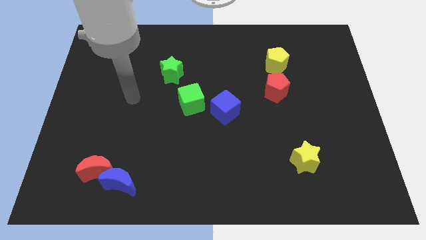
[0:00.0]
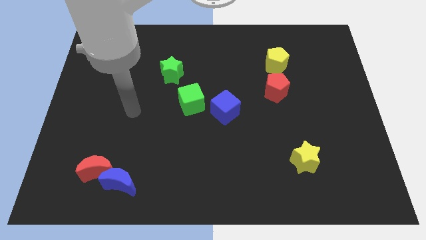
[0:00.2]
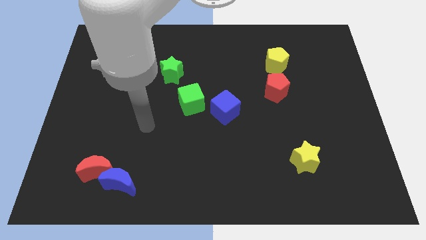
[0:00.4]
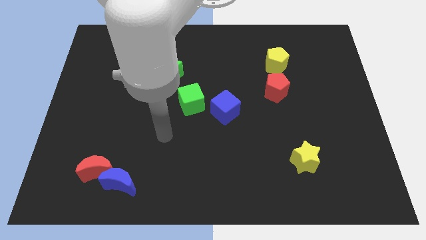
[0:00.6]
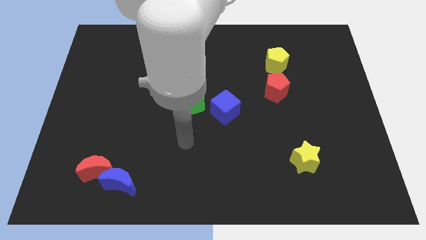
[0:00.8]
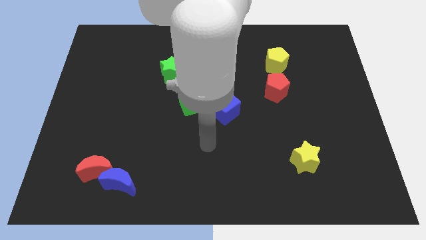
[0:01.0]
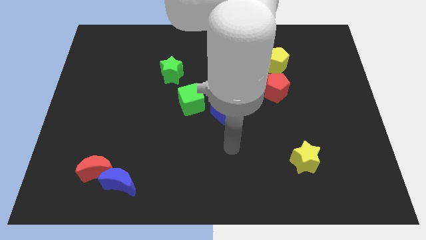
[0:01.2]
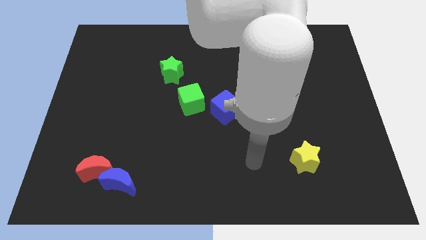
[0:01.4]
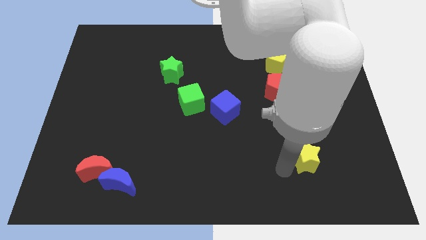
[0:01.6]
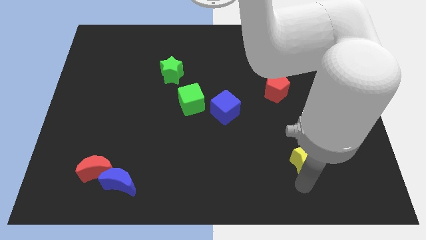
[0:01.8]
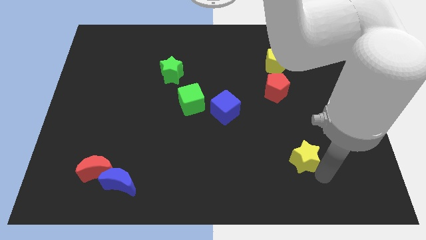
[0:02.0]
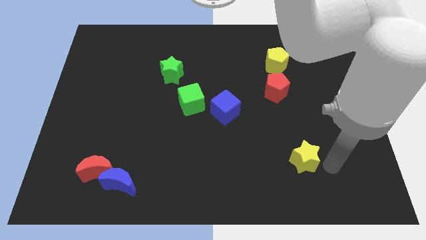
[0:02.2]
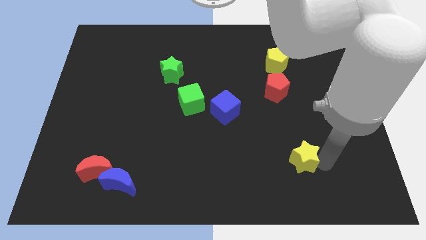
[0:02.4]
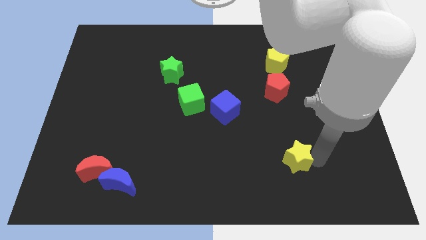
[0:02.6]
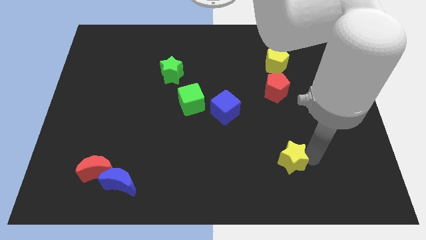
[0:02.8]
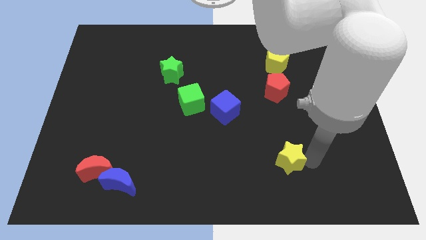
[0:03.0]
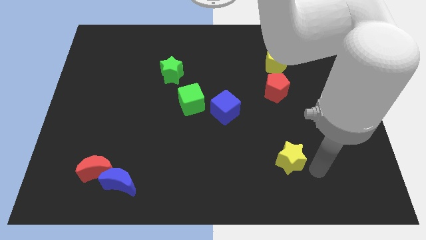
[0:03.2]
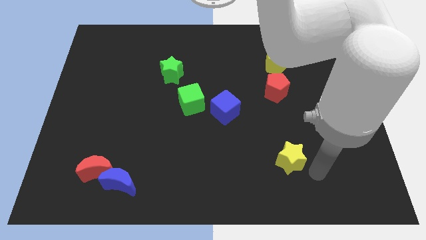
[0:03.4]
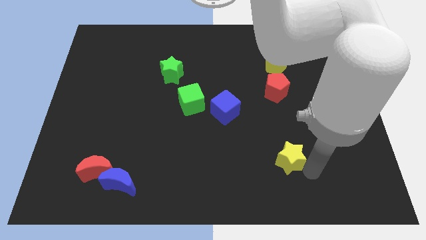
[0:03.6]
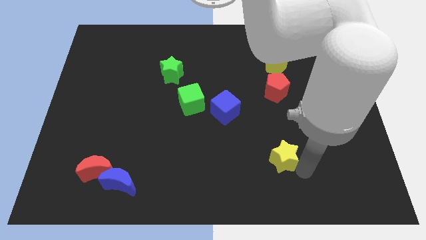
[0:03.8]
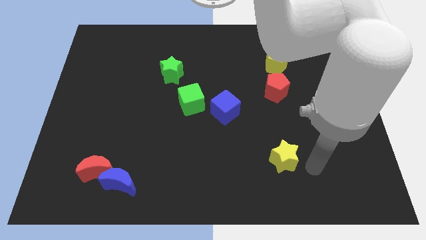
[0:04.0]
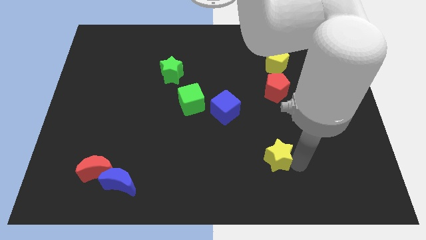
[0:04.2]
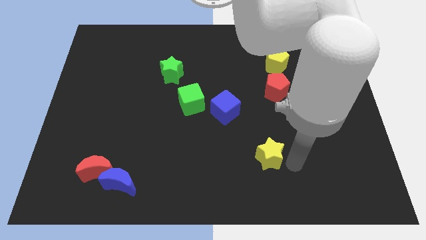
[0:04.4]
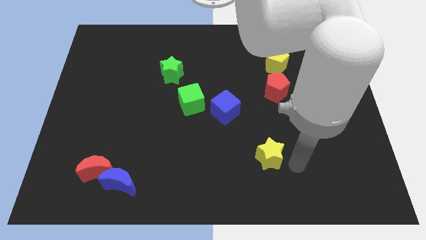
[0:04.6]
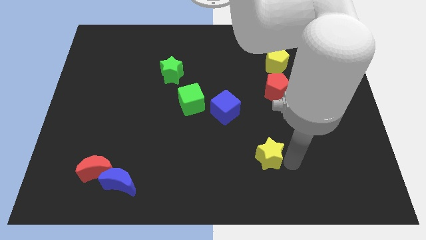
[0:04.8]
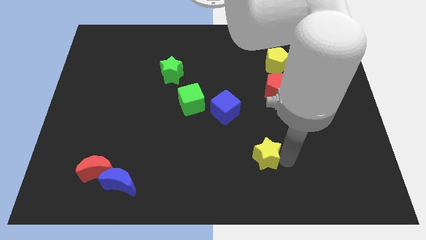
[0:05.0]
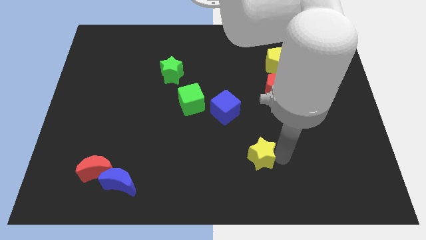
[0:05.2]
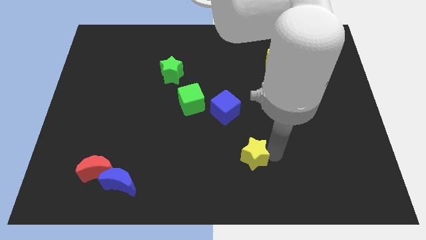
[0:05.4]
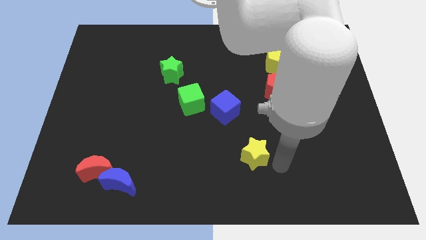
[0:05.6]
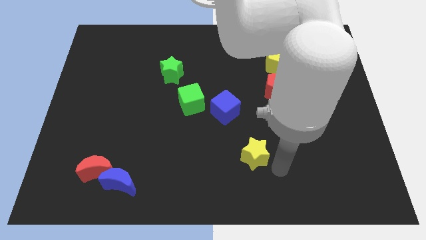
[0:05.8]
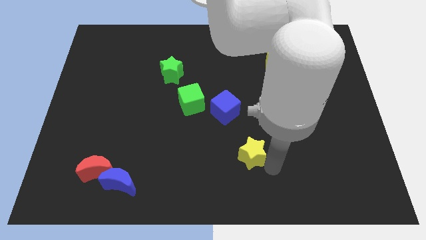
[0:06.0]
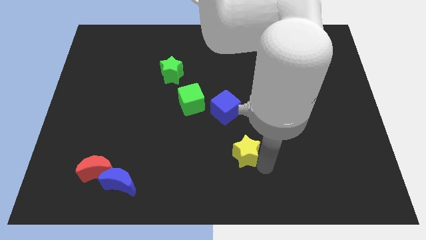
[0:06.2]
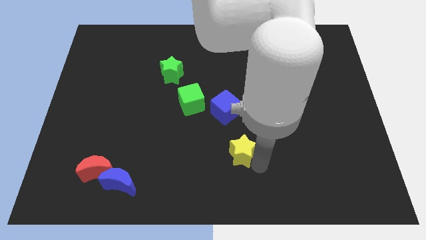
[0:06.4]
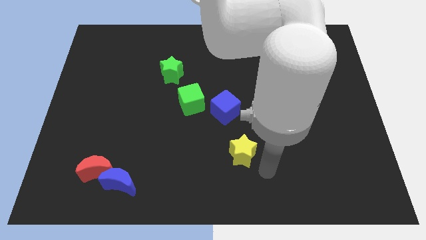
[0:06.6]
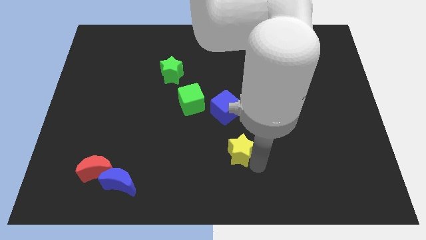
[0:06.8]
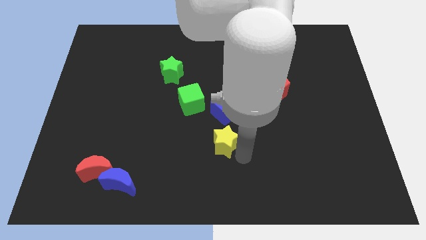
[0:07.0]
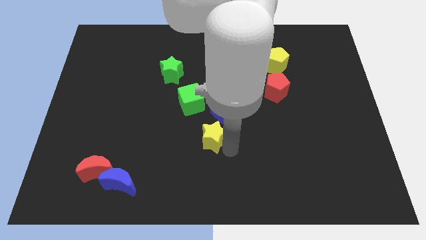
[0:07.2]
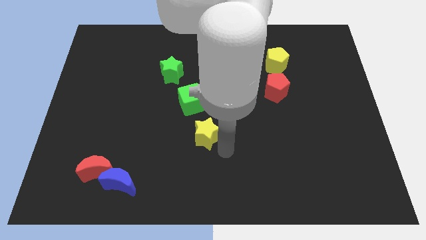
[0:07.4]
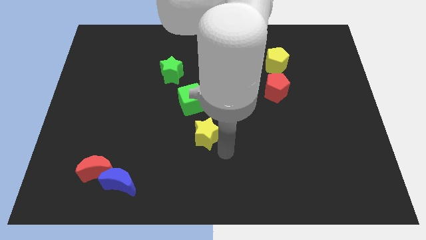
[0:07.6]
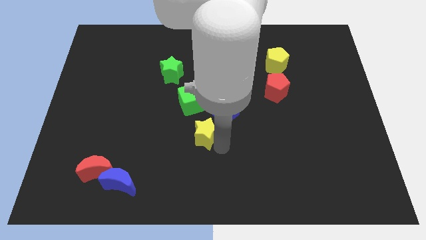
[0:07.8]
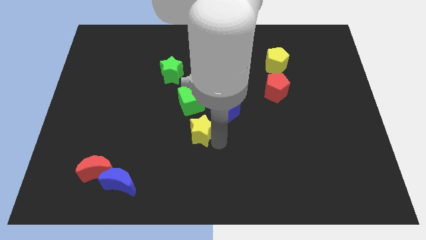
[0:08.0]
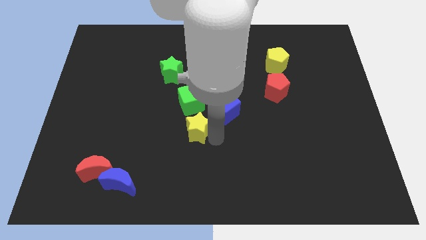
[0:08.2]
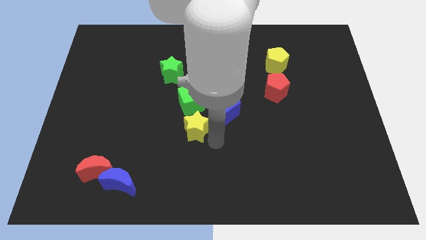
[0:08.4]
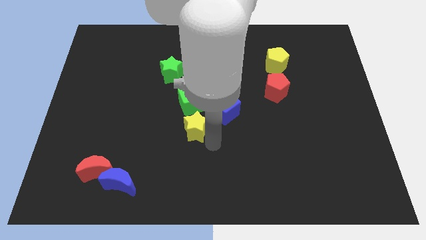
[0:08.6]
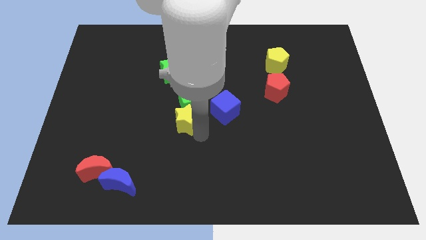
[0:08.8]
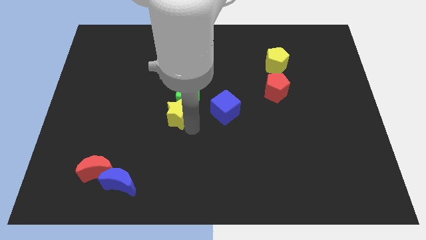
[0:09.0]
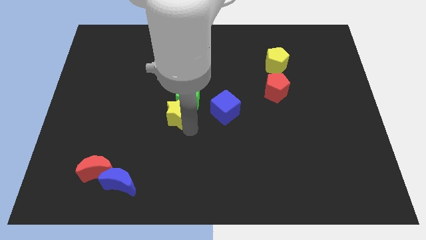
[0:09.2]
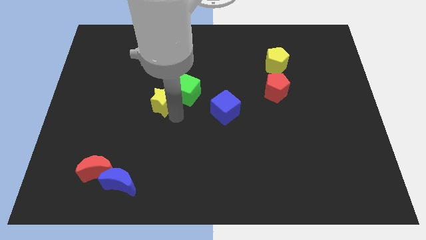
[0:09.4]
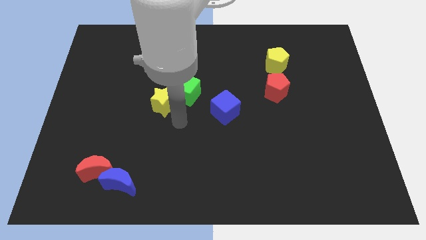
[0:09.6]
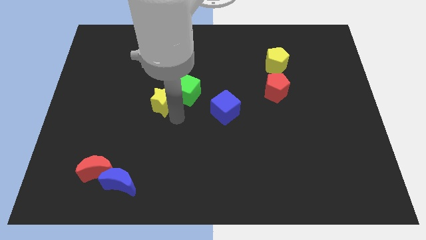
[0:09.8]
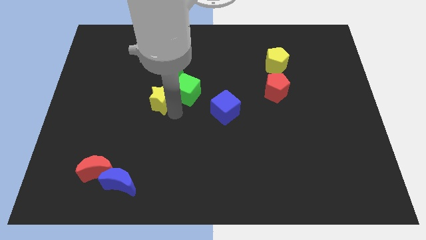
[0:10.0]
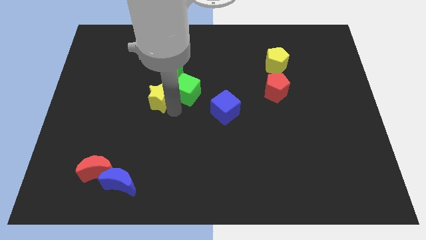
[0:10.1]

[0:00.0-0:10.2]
push the yellow star to the bottom left side of the green star

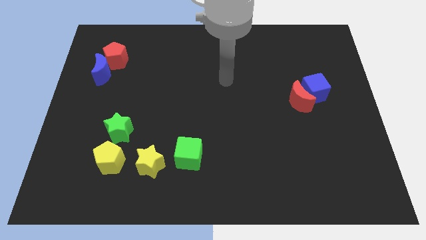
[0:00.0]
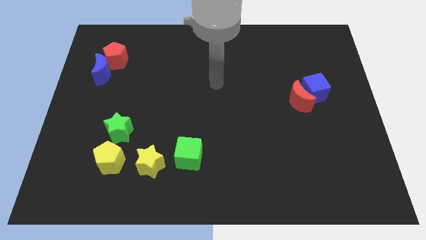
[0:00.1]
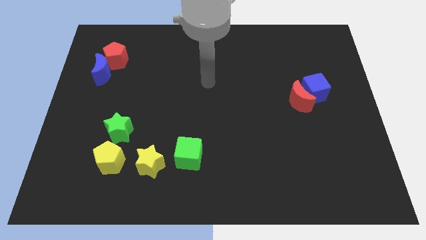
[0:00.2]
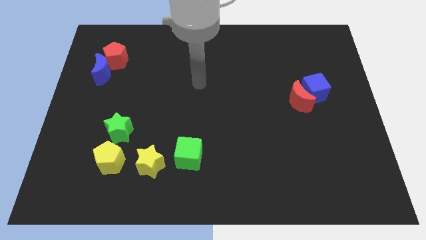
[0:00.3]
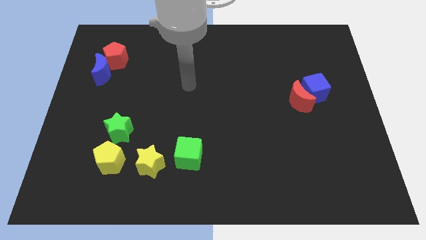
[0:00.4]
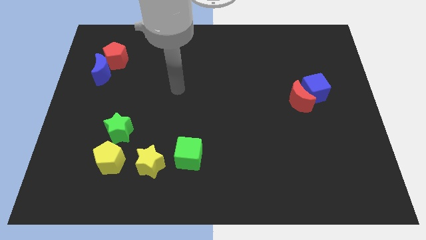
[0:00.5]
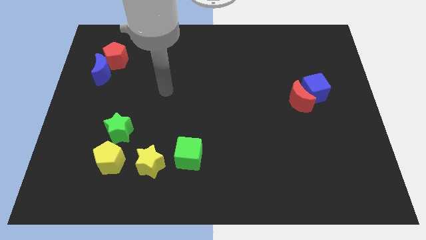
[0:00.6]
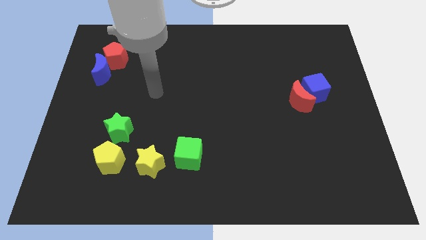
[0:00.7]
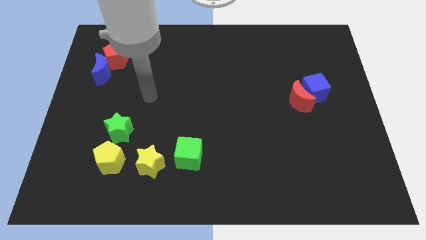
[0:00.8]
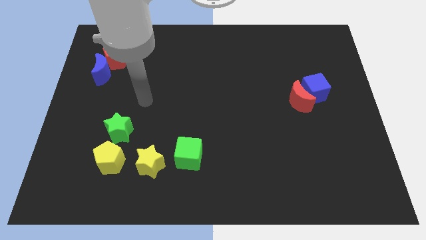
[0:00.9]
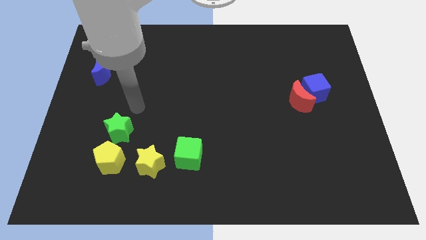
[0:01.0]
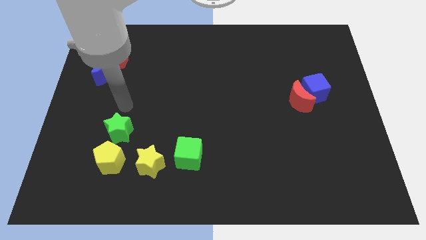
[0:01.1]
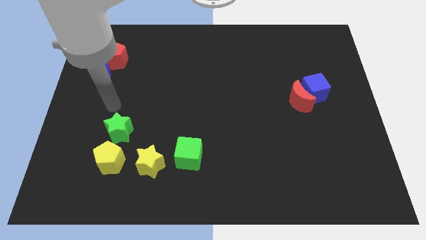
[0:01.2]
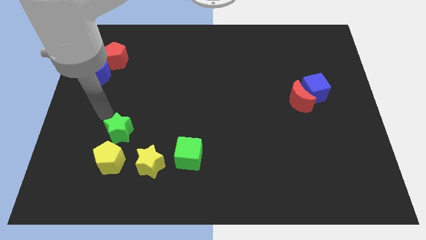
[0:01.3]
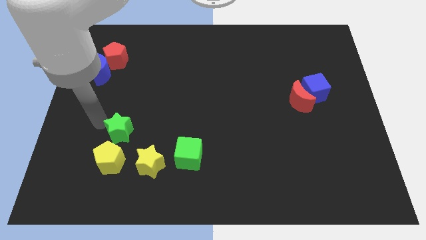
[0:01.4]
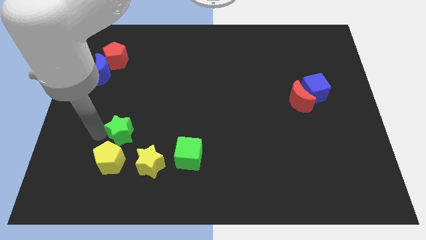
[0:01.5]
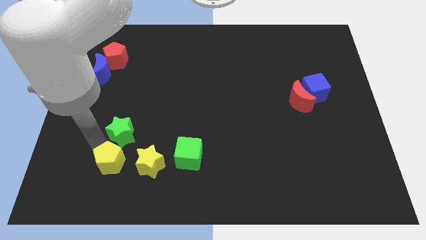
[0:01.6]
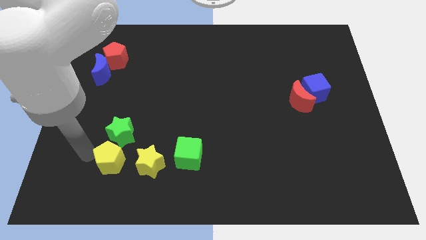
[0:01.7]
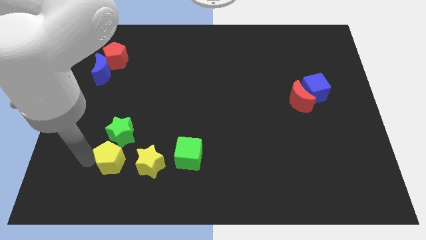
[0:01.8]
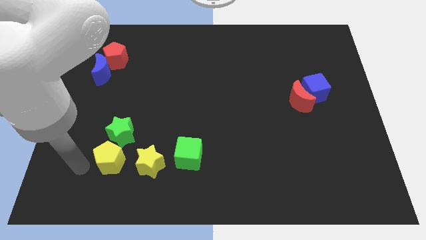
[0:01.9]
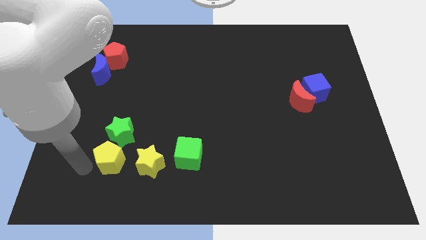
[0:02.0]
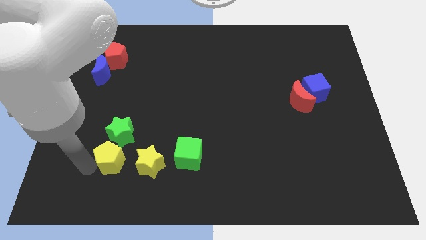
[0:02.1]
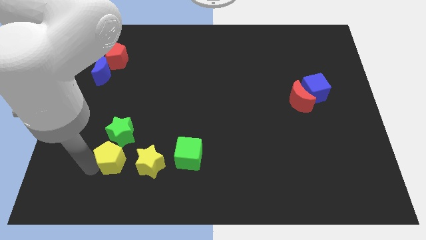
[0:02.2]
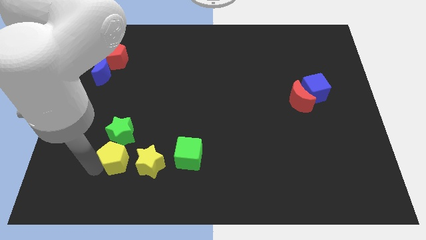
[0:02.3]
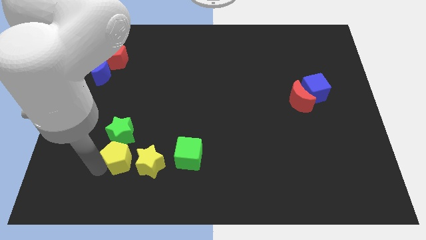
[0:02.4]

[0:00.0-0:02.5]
slide the yellow pentagon to the bottom right side of the green star
